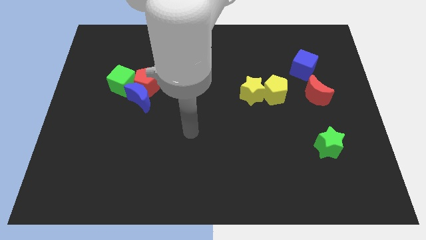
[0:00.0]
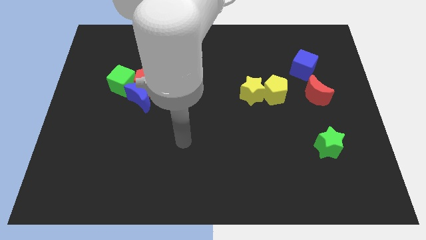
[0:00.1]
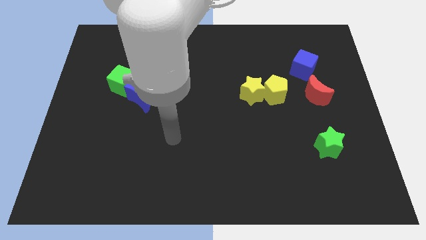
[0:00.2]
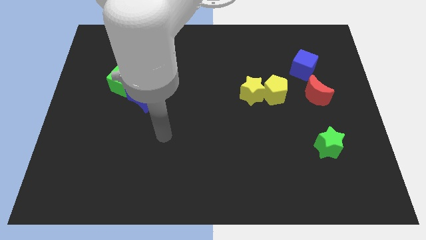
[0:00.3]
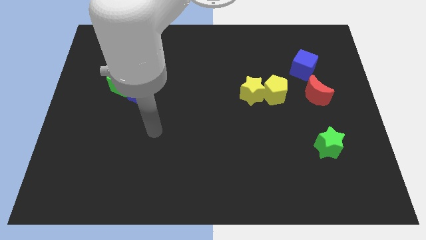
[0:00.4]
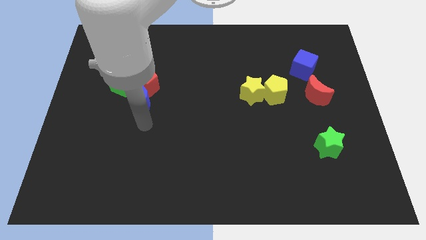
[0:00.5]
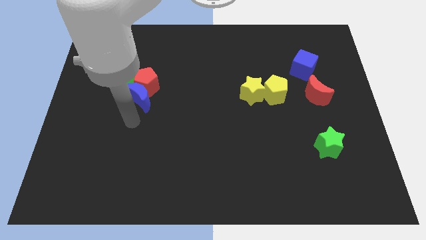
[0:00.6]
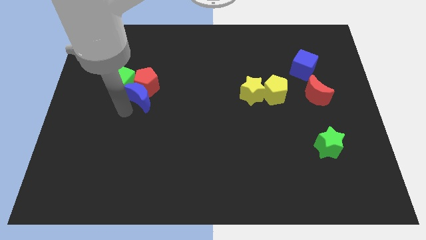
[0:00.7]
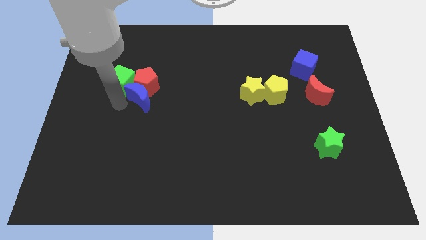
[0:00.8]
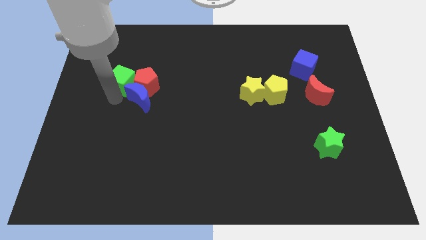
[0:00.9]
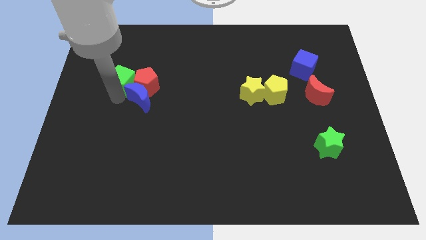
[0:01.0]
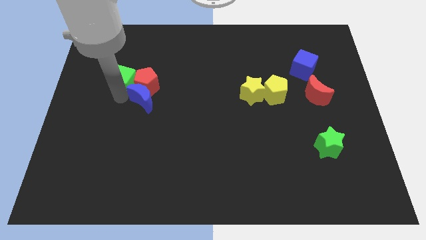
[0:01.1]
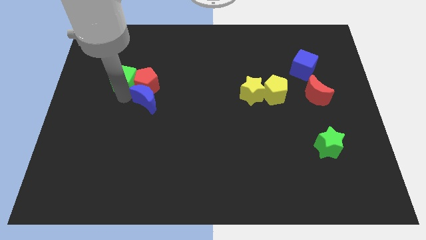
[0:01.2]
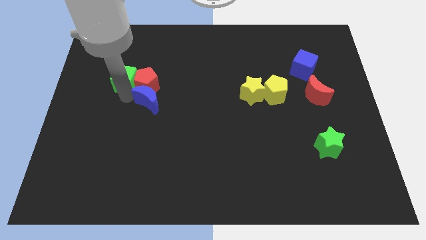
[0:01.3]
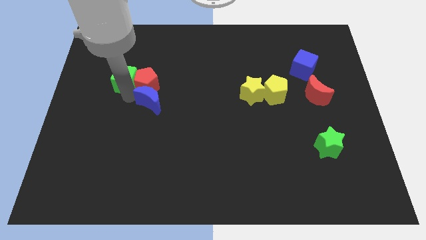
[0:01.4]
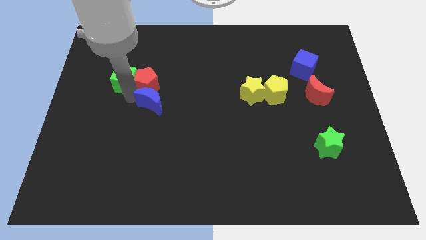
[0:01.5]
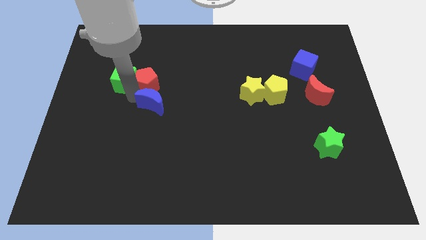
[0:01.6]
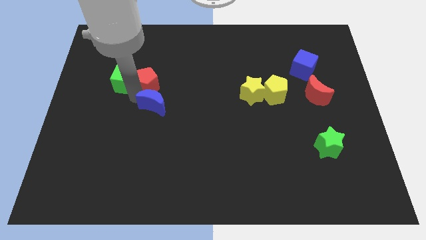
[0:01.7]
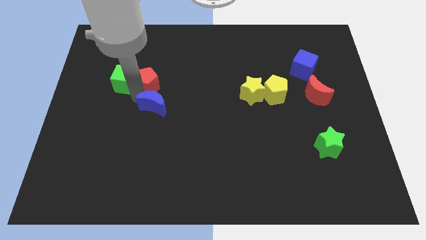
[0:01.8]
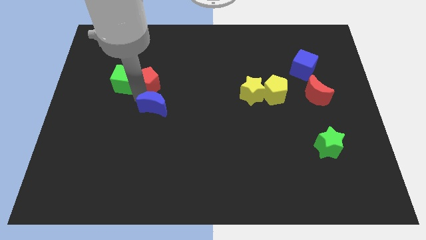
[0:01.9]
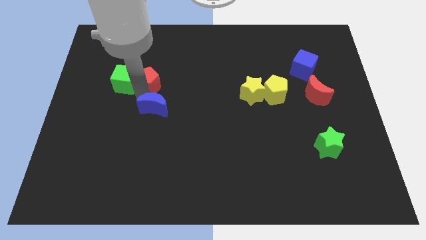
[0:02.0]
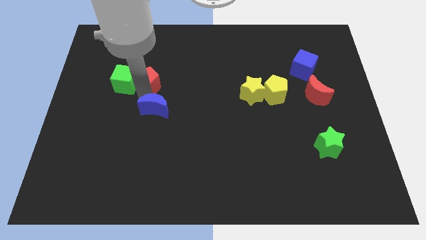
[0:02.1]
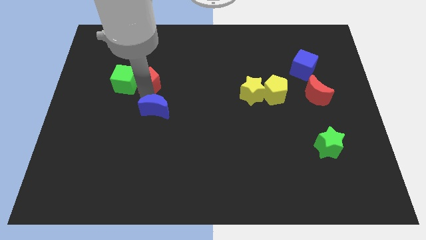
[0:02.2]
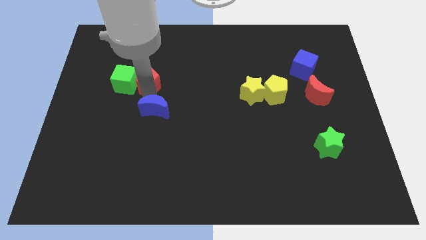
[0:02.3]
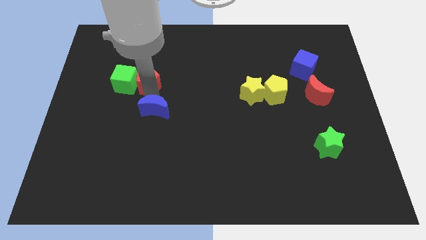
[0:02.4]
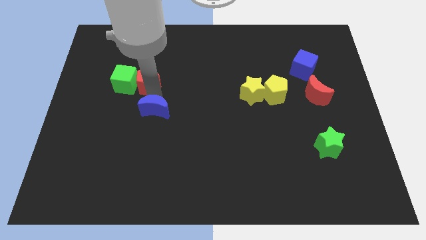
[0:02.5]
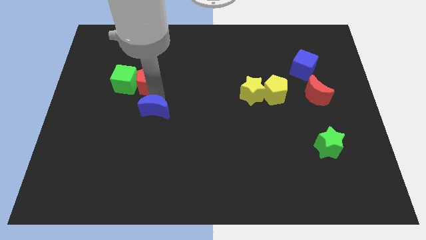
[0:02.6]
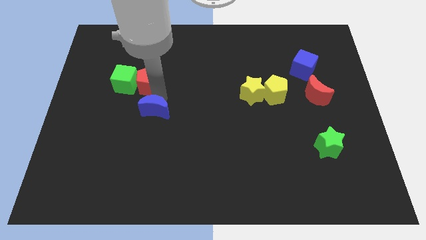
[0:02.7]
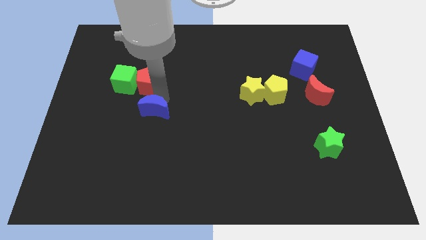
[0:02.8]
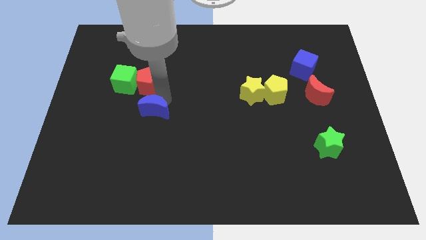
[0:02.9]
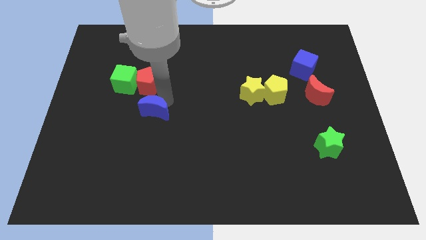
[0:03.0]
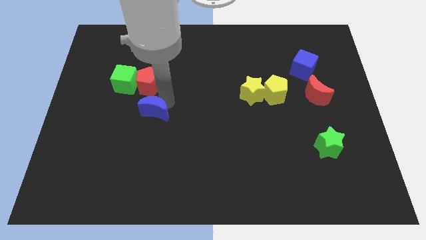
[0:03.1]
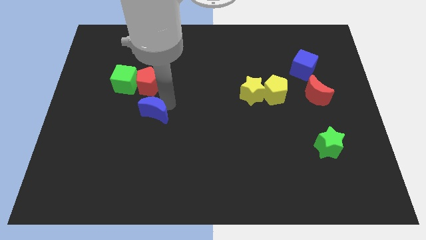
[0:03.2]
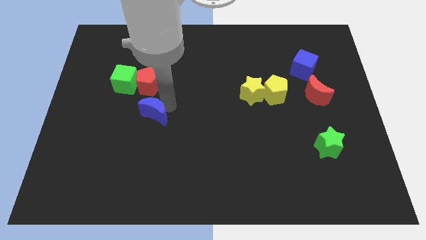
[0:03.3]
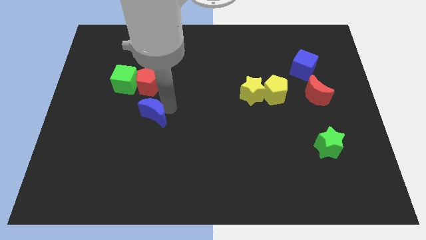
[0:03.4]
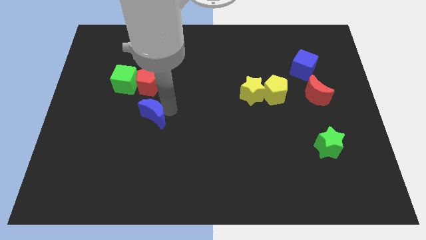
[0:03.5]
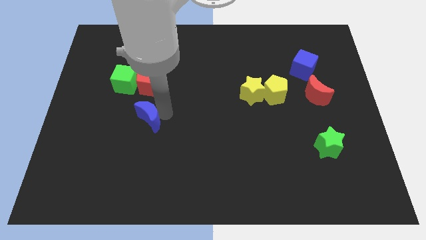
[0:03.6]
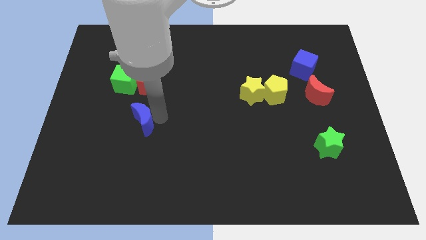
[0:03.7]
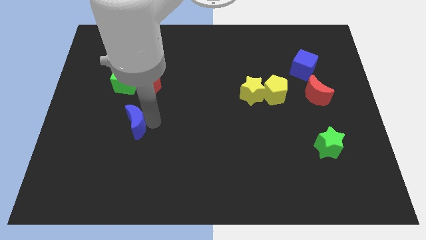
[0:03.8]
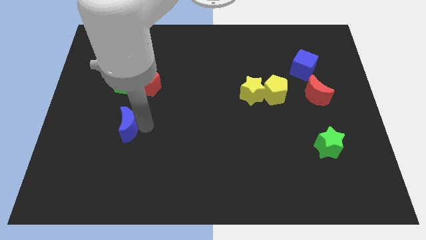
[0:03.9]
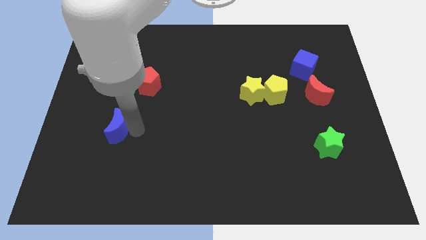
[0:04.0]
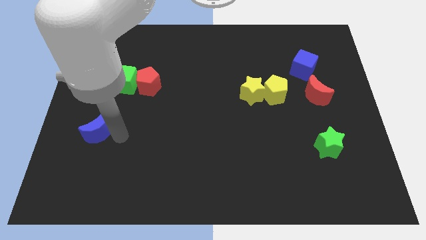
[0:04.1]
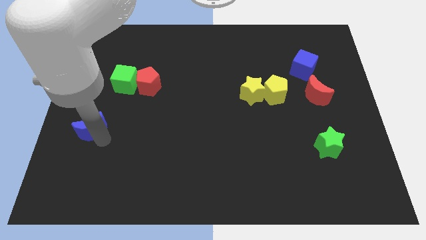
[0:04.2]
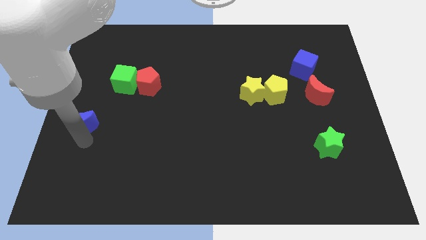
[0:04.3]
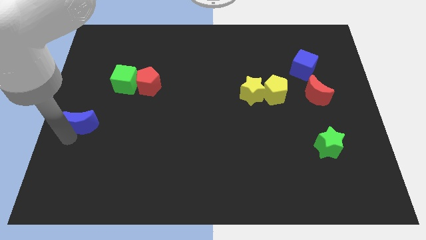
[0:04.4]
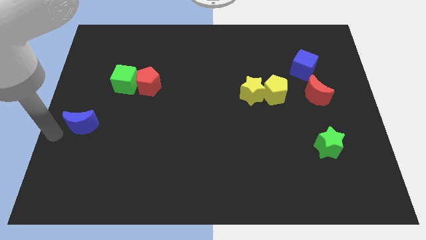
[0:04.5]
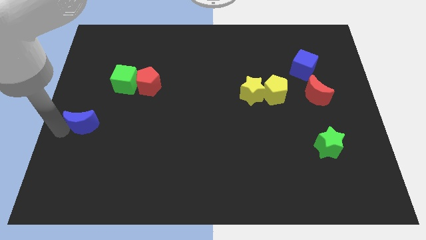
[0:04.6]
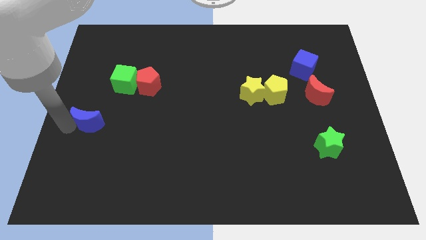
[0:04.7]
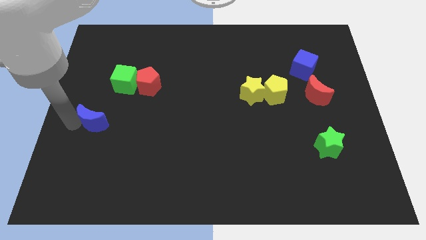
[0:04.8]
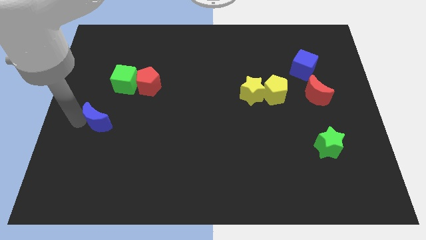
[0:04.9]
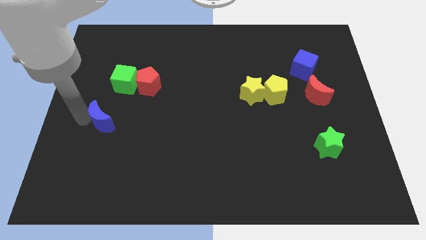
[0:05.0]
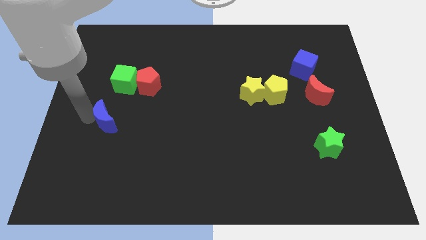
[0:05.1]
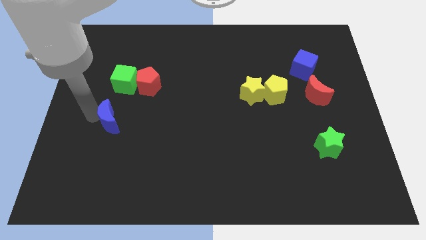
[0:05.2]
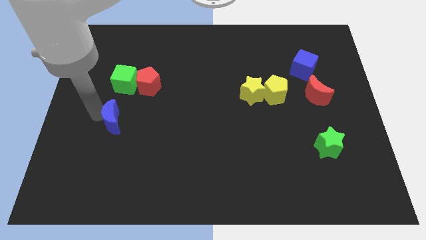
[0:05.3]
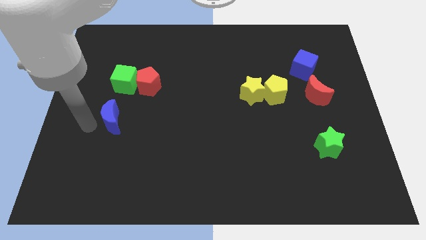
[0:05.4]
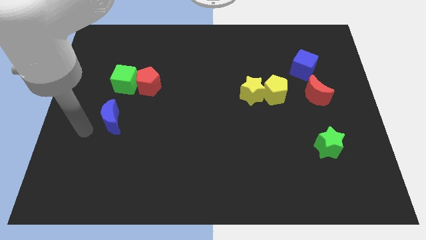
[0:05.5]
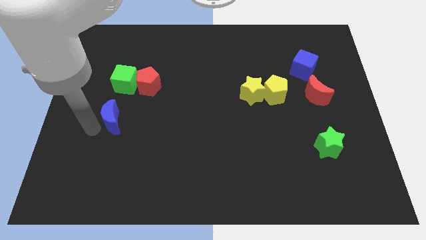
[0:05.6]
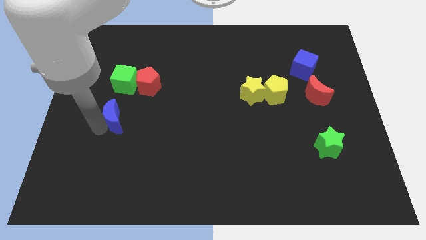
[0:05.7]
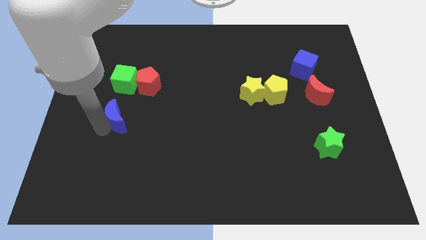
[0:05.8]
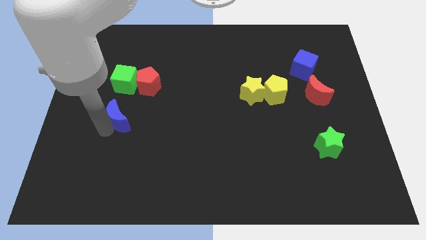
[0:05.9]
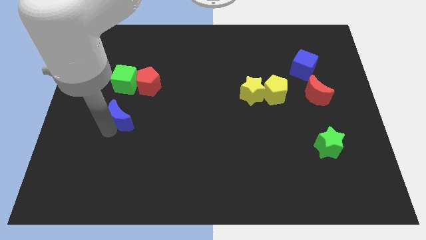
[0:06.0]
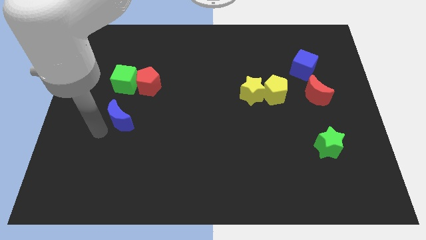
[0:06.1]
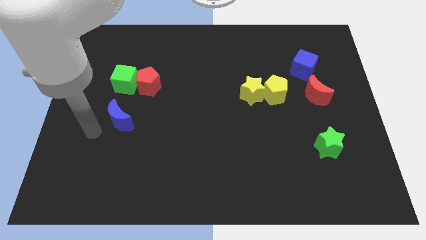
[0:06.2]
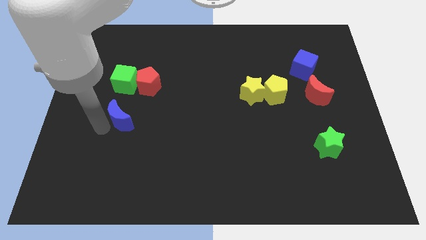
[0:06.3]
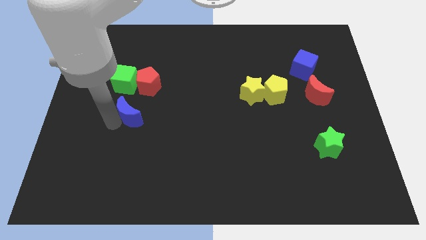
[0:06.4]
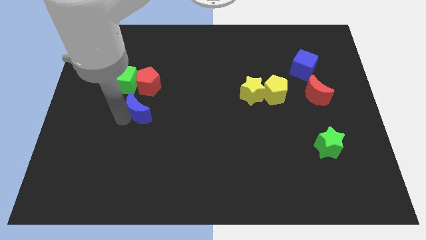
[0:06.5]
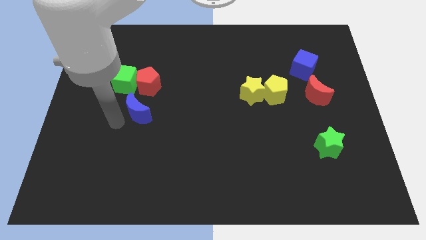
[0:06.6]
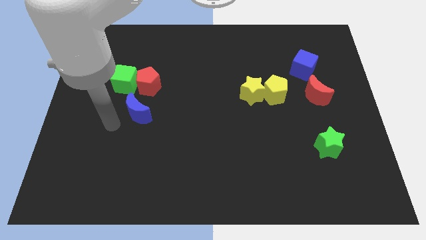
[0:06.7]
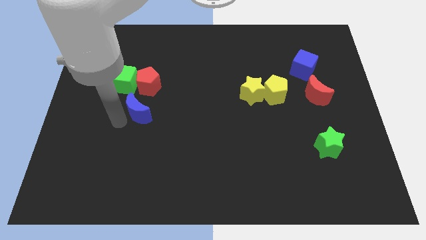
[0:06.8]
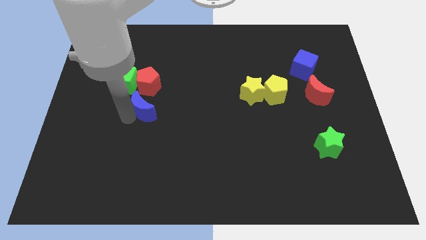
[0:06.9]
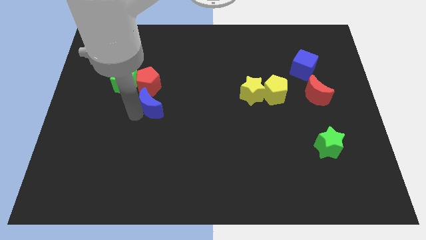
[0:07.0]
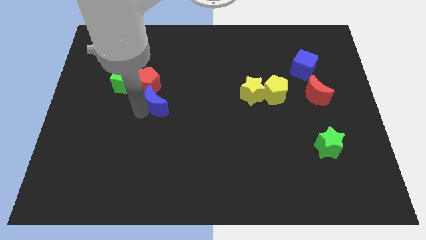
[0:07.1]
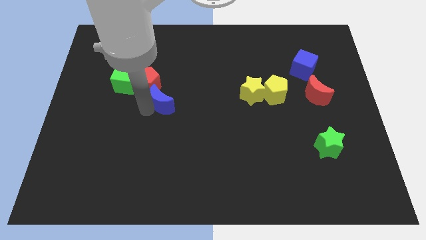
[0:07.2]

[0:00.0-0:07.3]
slide the blue moon to the center of the board
